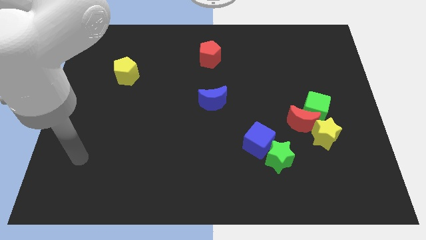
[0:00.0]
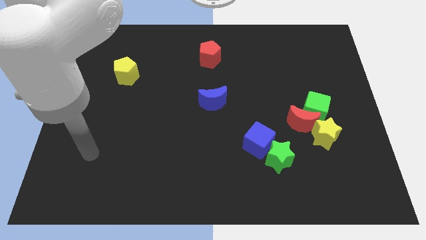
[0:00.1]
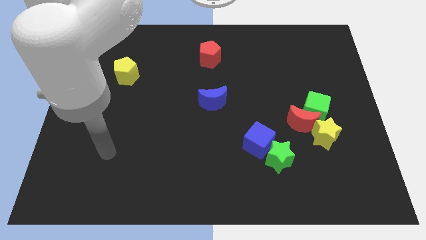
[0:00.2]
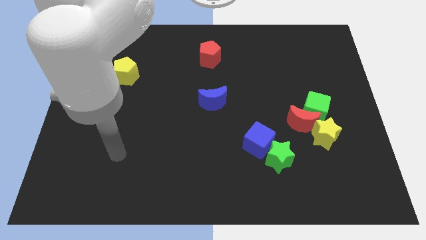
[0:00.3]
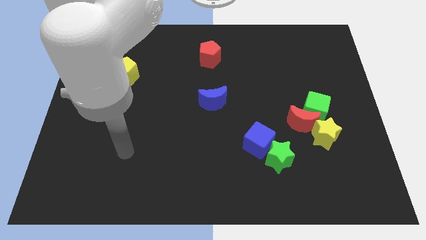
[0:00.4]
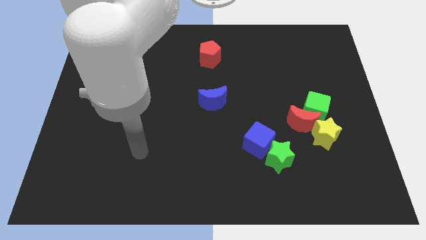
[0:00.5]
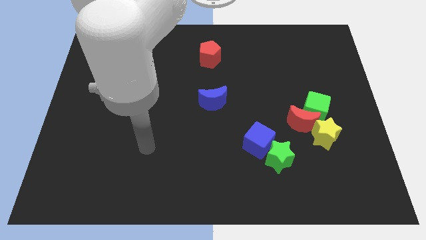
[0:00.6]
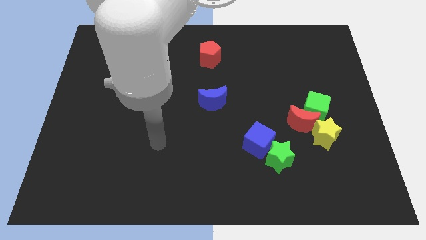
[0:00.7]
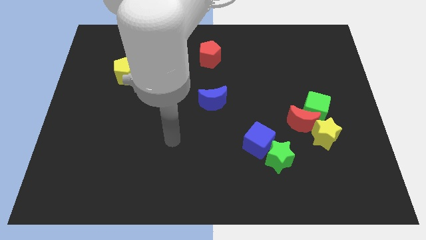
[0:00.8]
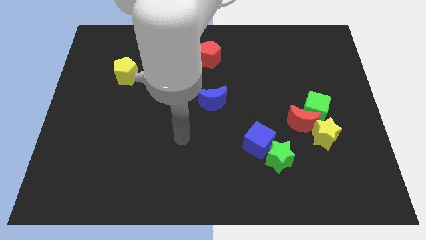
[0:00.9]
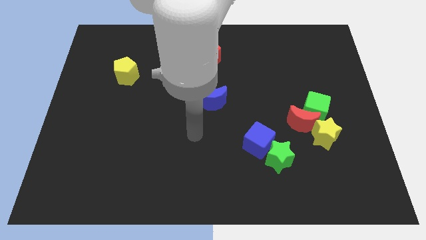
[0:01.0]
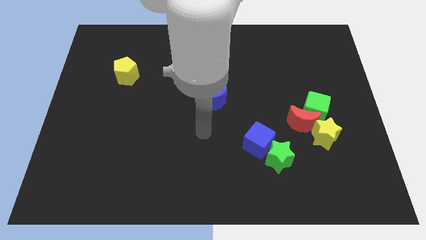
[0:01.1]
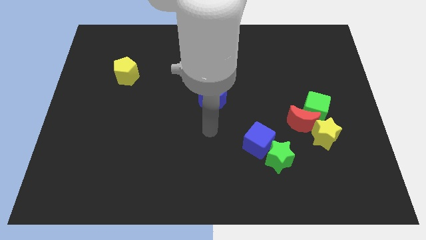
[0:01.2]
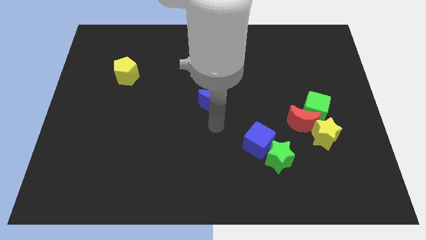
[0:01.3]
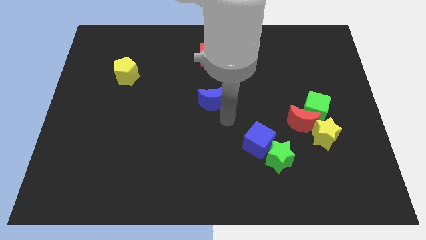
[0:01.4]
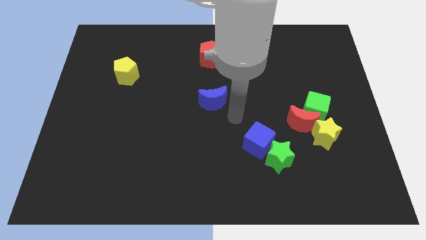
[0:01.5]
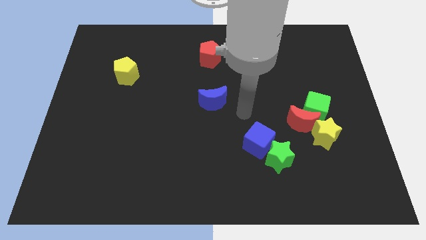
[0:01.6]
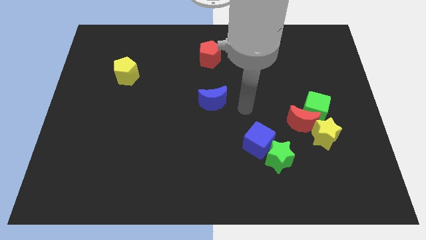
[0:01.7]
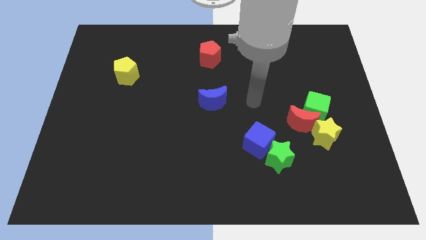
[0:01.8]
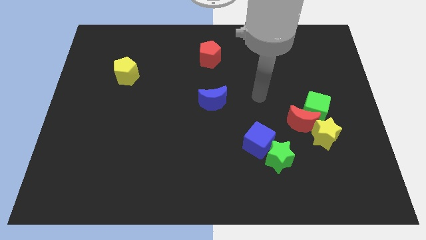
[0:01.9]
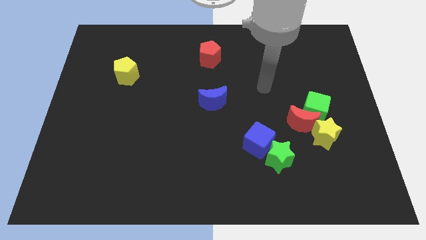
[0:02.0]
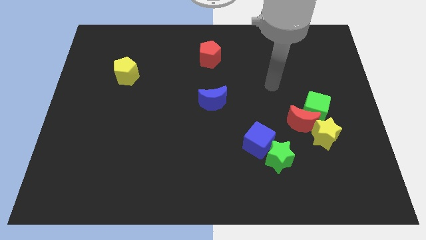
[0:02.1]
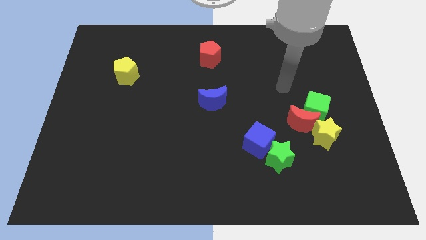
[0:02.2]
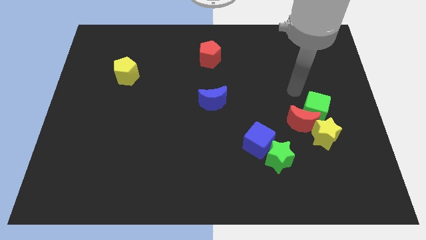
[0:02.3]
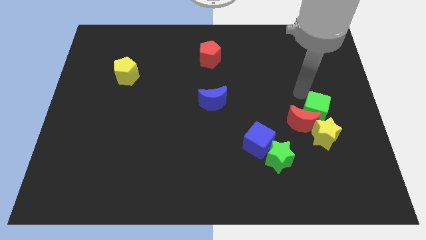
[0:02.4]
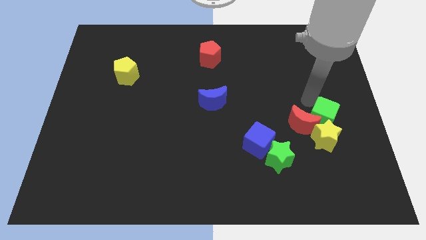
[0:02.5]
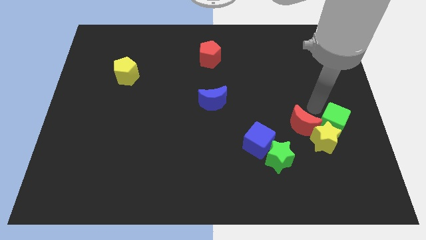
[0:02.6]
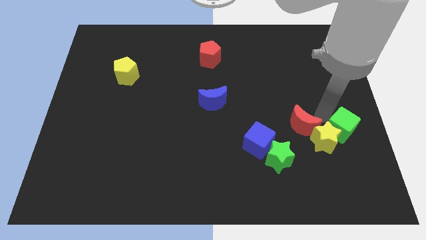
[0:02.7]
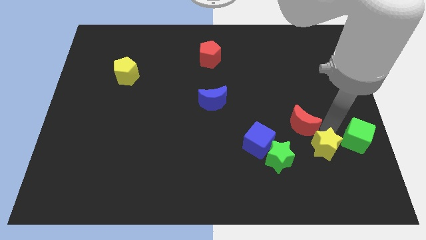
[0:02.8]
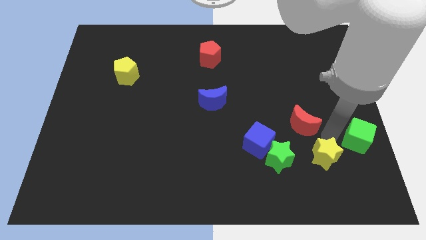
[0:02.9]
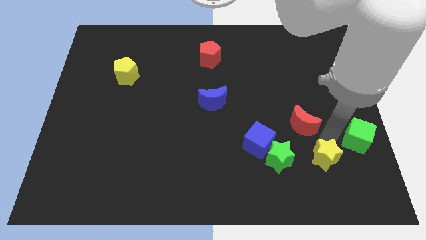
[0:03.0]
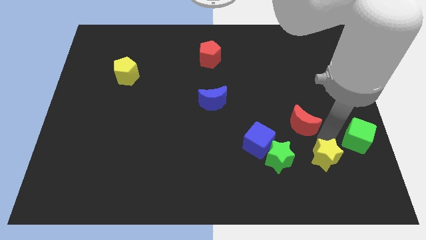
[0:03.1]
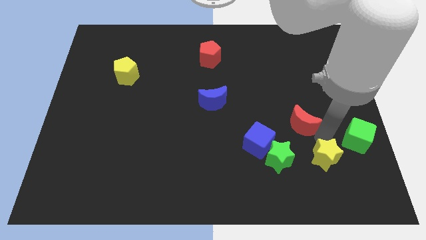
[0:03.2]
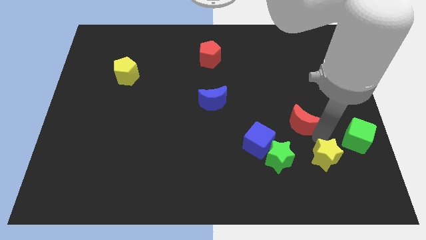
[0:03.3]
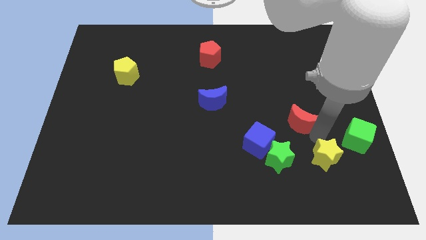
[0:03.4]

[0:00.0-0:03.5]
separate the red moon from the green cube and yellow star

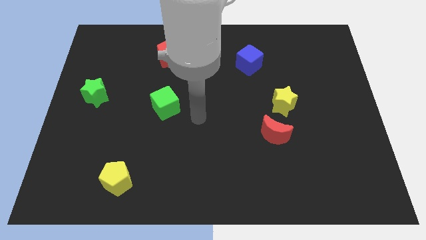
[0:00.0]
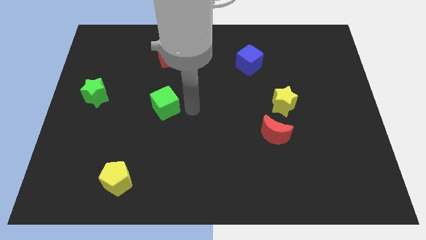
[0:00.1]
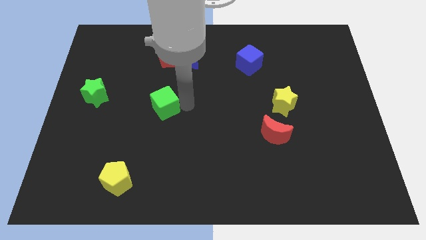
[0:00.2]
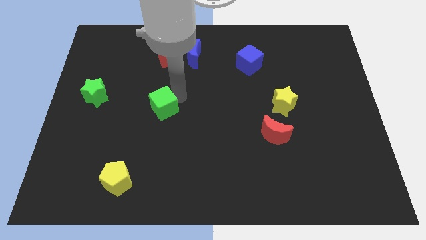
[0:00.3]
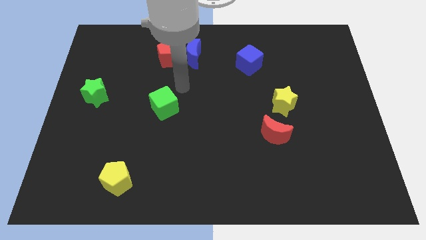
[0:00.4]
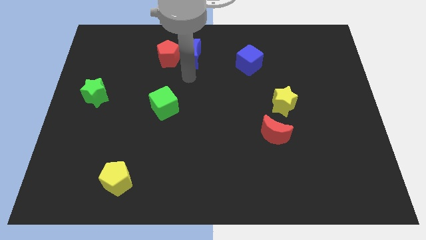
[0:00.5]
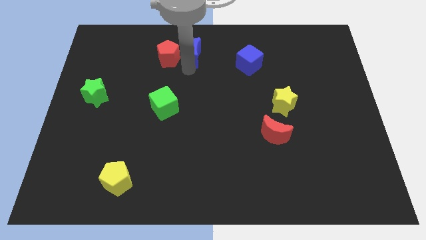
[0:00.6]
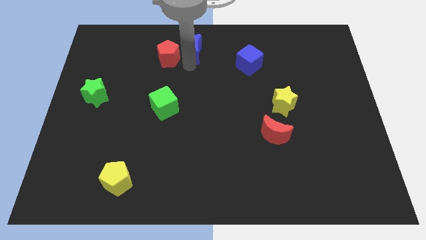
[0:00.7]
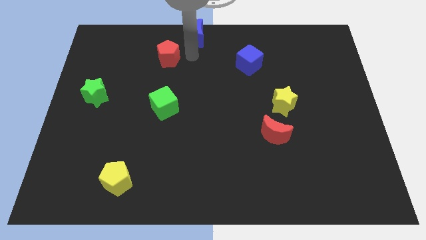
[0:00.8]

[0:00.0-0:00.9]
move the red pentagon away from the blue moon

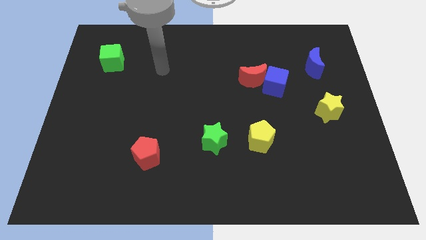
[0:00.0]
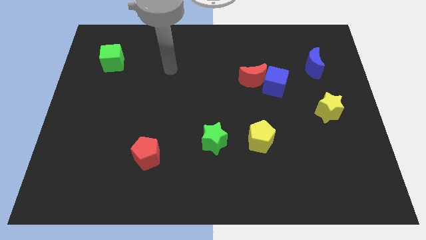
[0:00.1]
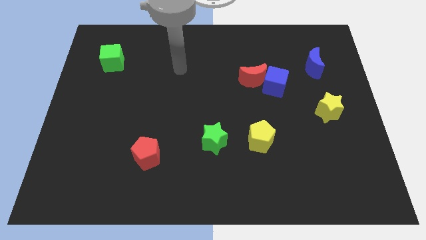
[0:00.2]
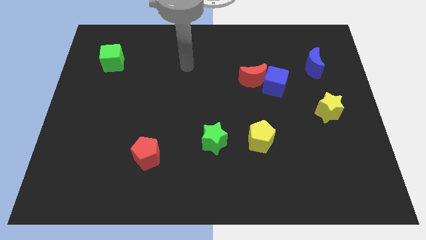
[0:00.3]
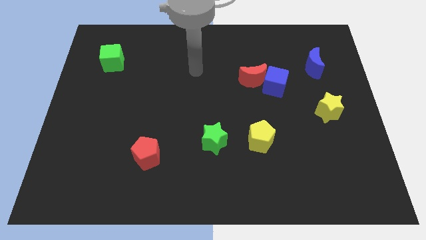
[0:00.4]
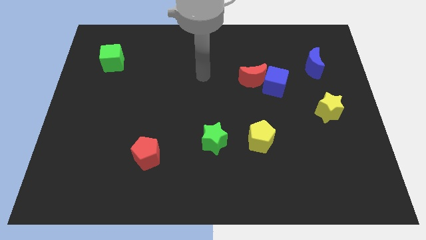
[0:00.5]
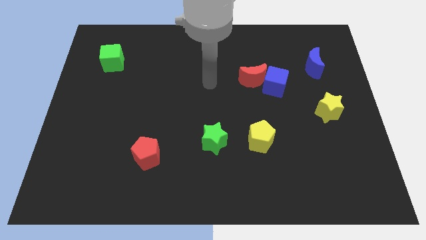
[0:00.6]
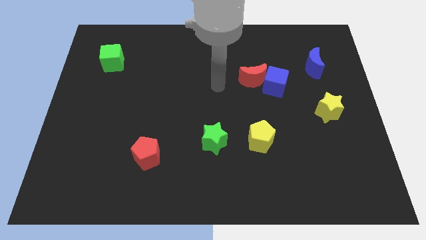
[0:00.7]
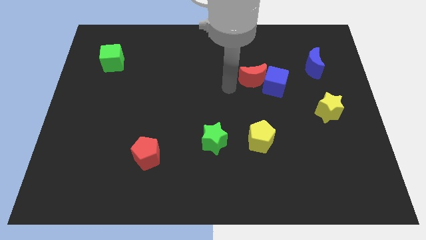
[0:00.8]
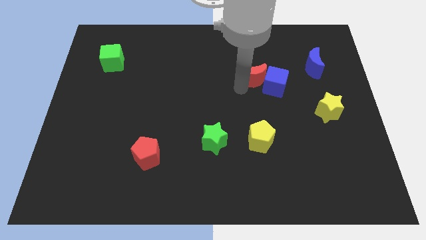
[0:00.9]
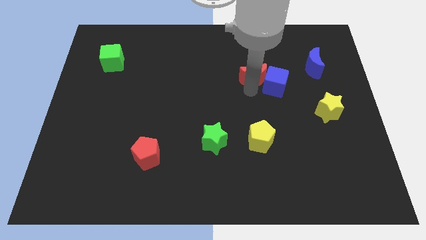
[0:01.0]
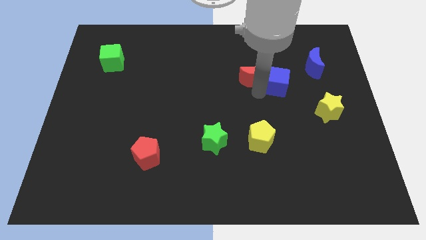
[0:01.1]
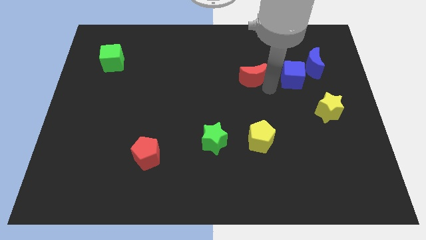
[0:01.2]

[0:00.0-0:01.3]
move the red moon away from the blue cube

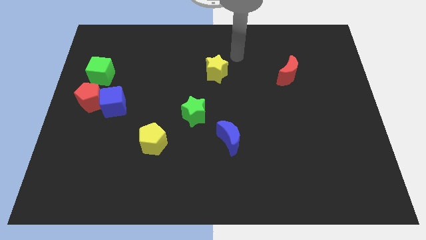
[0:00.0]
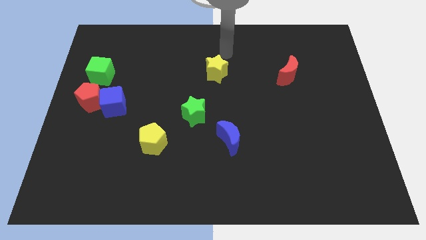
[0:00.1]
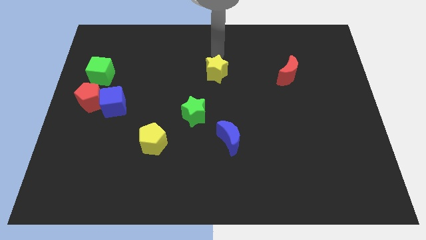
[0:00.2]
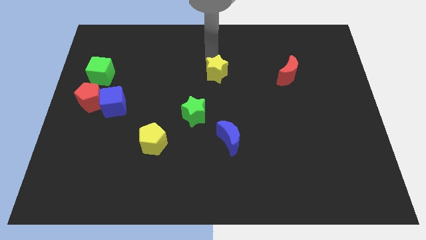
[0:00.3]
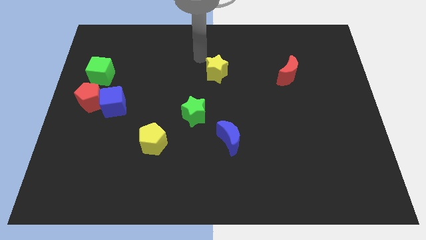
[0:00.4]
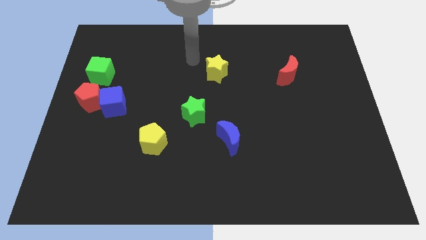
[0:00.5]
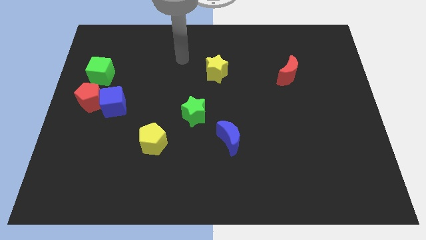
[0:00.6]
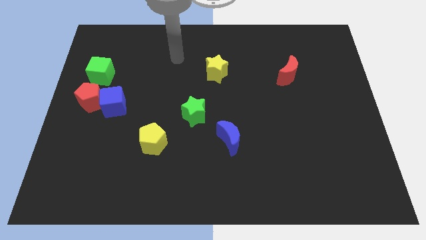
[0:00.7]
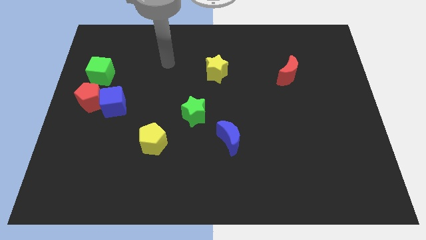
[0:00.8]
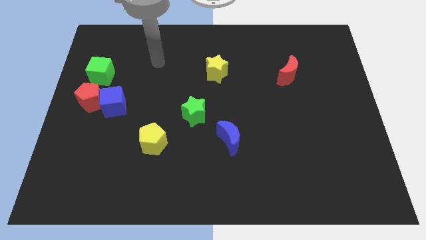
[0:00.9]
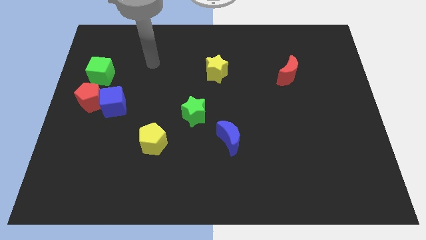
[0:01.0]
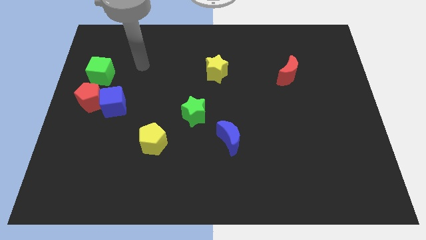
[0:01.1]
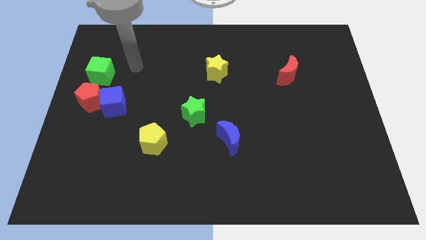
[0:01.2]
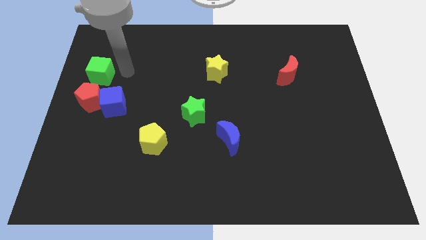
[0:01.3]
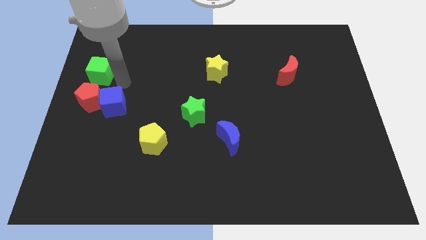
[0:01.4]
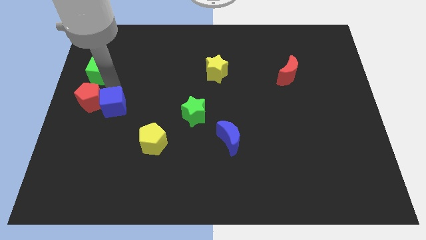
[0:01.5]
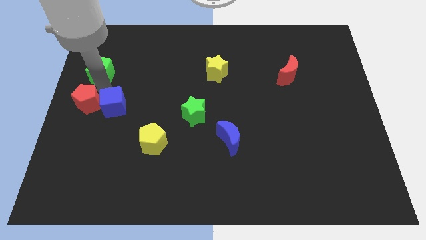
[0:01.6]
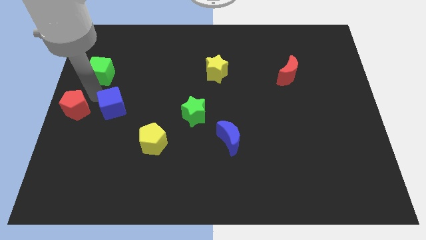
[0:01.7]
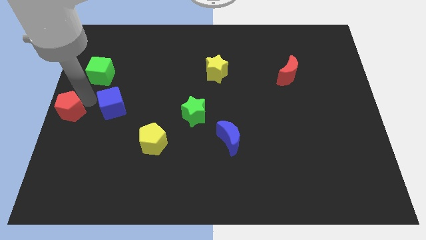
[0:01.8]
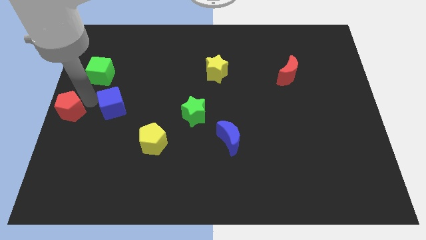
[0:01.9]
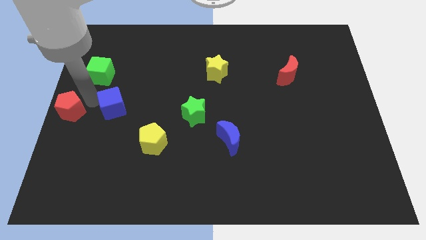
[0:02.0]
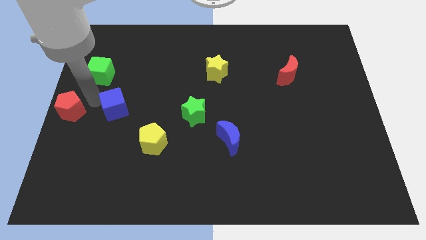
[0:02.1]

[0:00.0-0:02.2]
separate the blue cube from the red pentagon

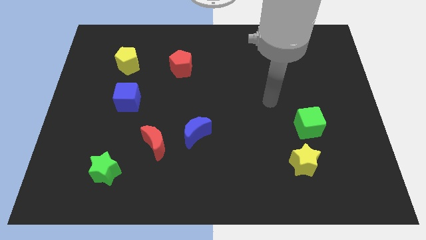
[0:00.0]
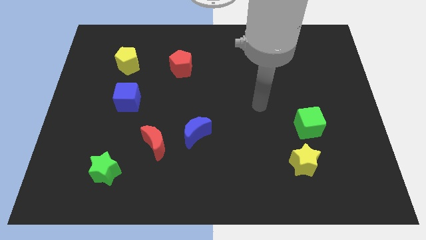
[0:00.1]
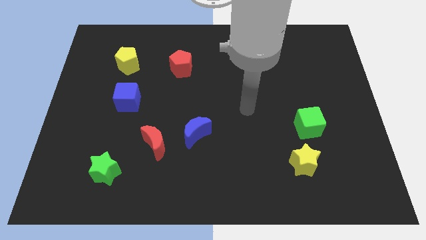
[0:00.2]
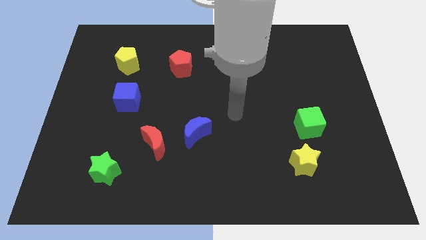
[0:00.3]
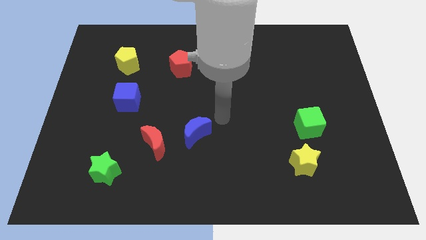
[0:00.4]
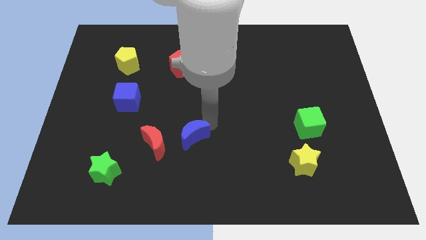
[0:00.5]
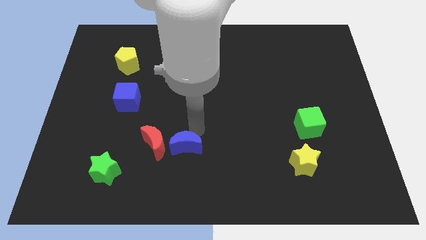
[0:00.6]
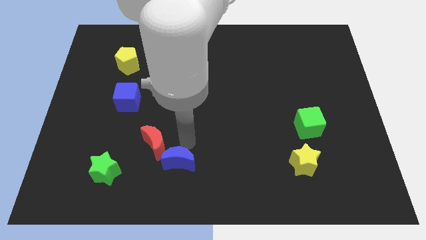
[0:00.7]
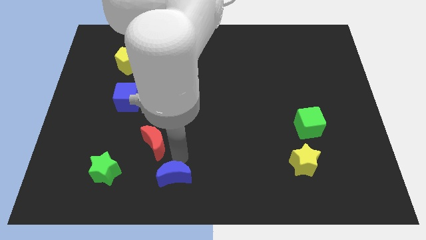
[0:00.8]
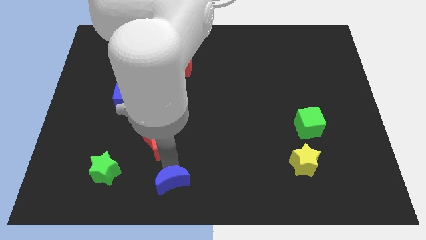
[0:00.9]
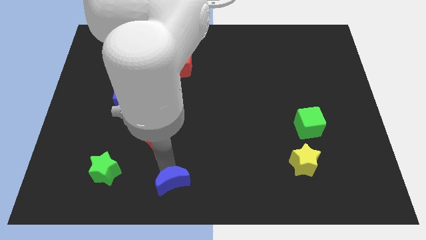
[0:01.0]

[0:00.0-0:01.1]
pull the red moon apart from the blue moon

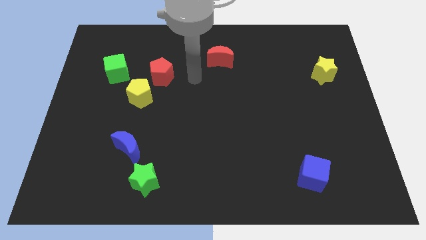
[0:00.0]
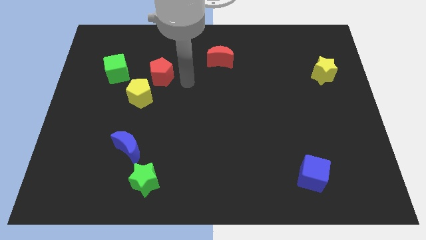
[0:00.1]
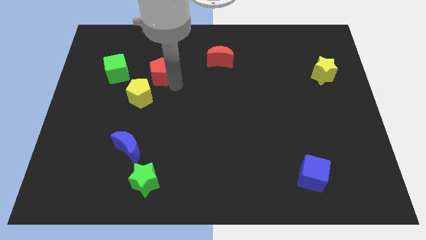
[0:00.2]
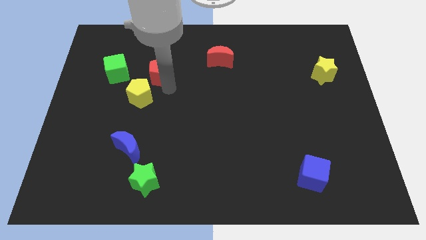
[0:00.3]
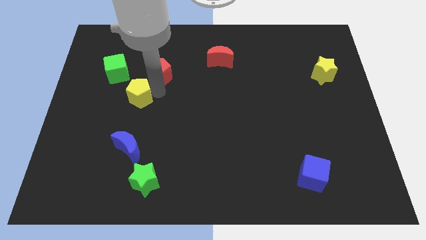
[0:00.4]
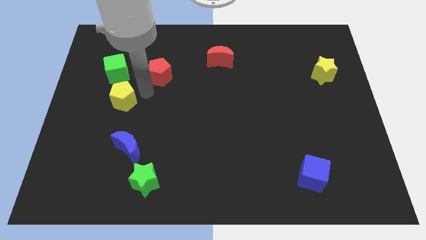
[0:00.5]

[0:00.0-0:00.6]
separate the red pentagon from the yellow pentagon
